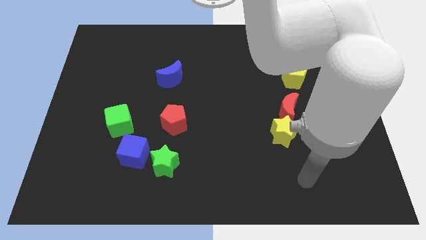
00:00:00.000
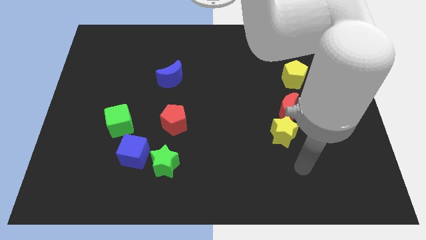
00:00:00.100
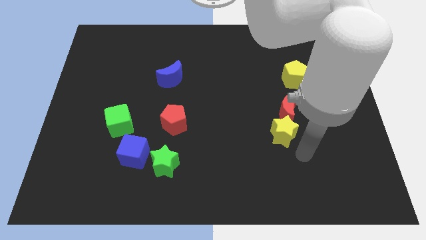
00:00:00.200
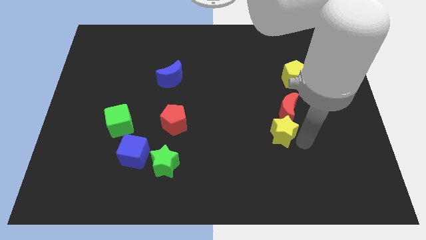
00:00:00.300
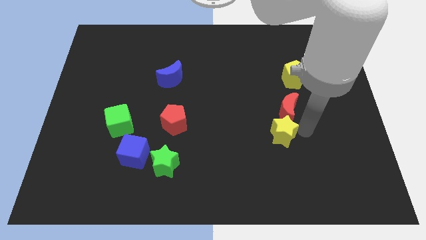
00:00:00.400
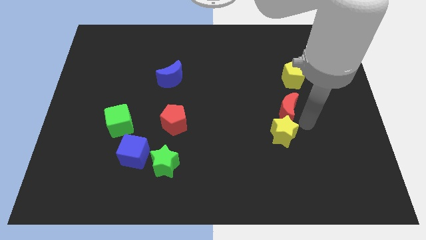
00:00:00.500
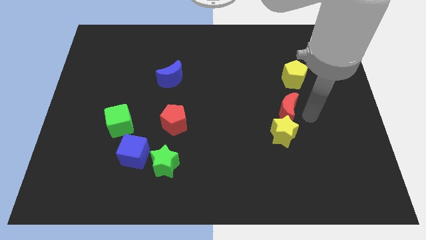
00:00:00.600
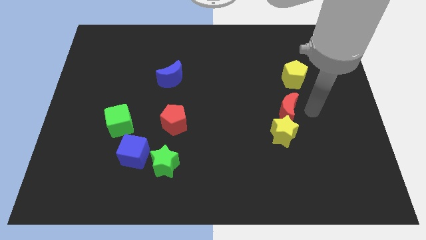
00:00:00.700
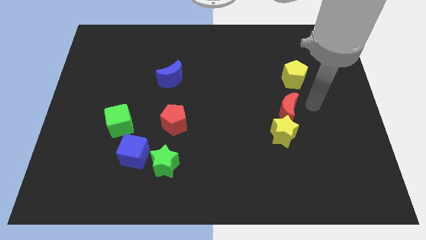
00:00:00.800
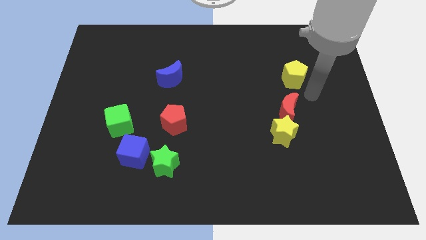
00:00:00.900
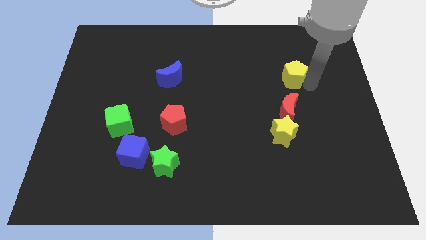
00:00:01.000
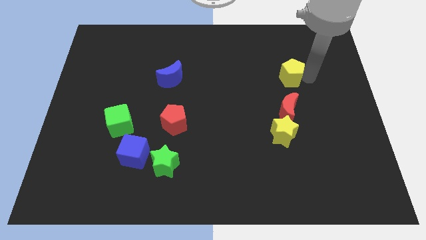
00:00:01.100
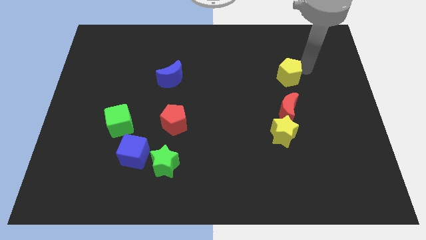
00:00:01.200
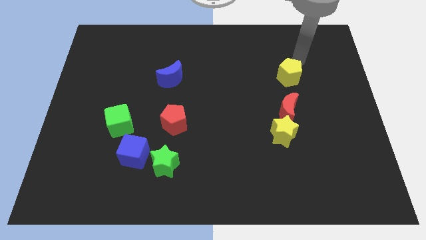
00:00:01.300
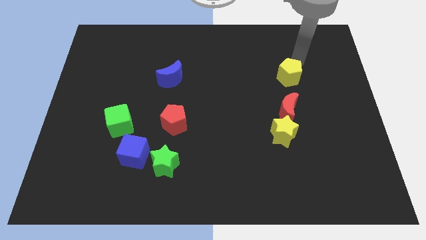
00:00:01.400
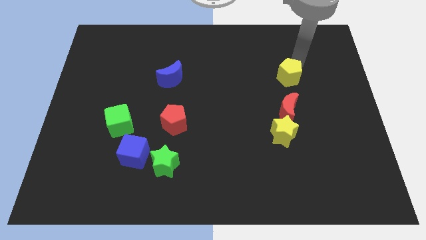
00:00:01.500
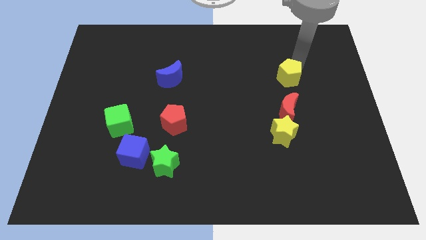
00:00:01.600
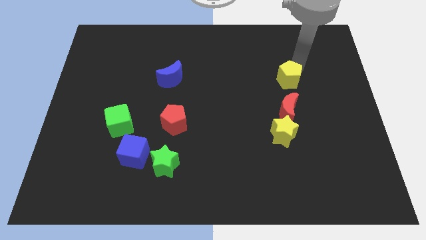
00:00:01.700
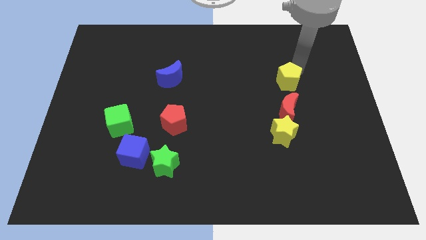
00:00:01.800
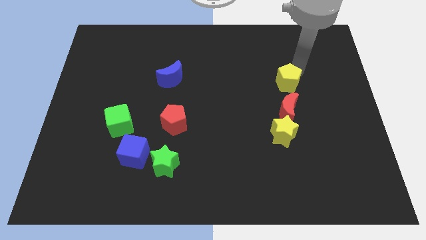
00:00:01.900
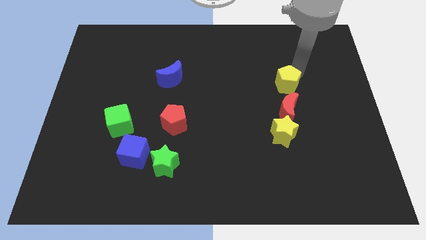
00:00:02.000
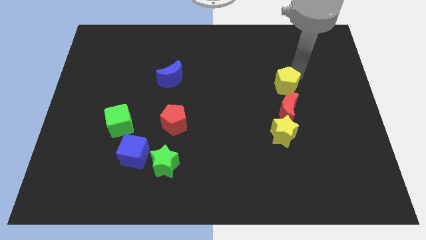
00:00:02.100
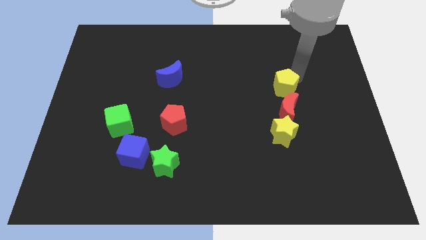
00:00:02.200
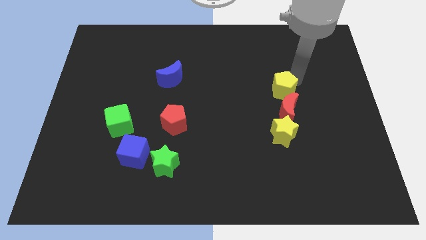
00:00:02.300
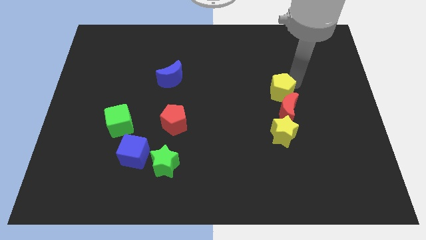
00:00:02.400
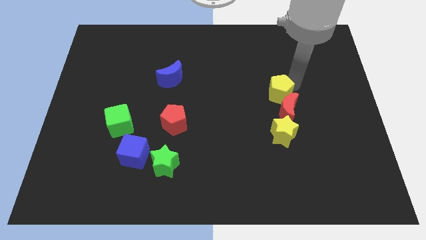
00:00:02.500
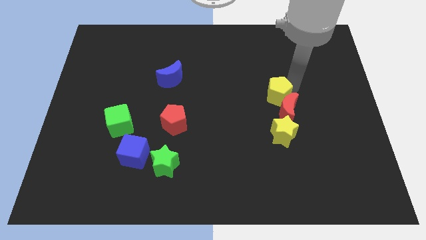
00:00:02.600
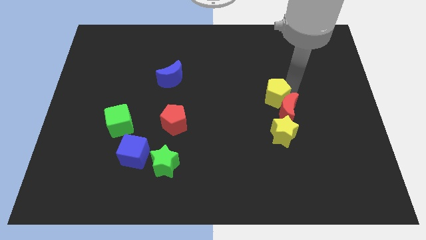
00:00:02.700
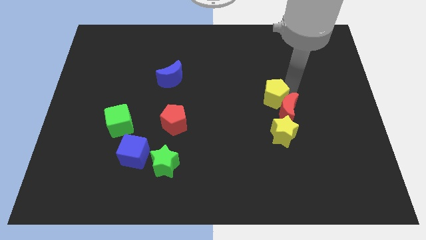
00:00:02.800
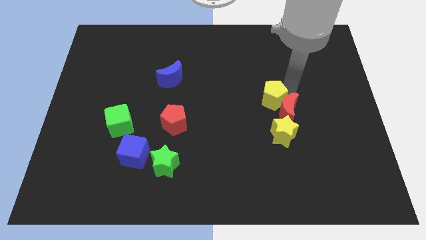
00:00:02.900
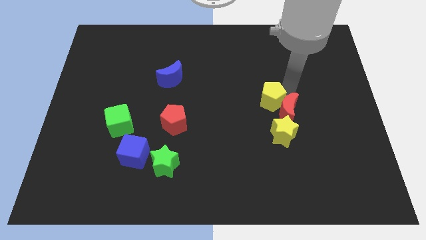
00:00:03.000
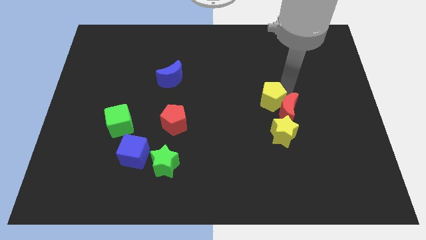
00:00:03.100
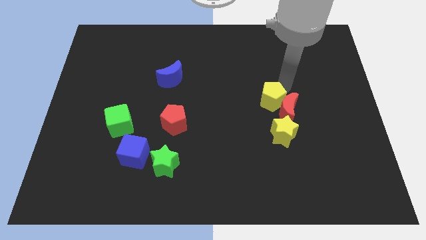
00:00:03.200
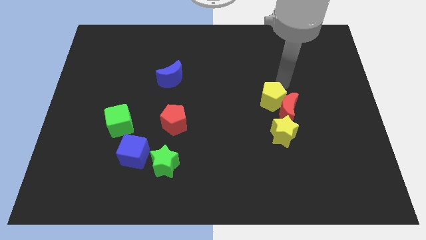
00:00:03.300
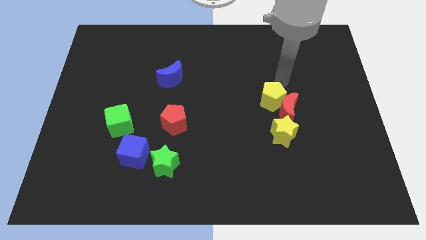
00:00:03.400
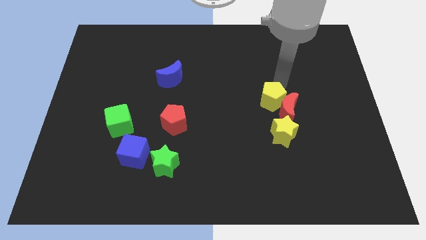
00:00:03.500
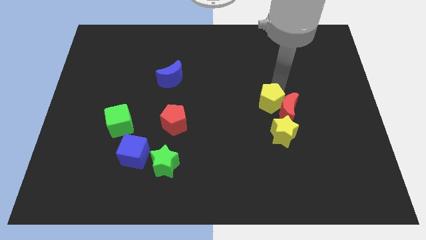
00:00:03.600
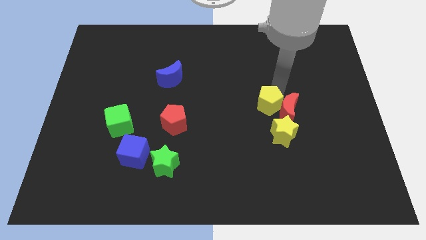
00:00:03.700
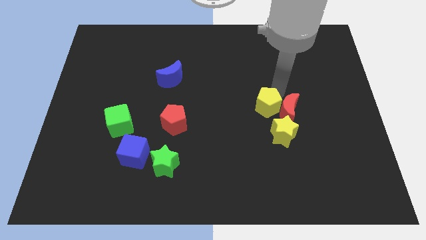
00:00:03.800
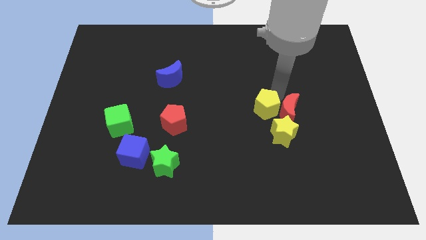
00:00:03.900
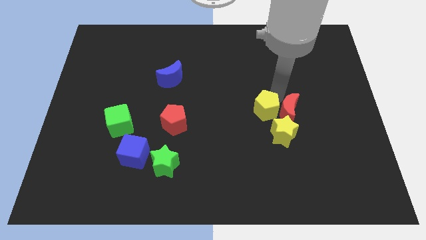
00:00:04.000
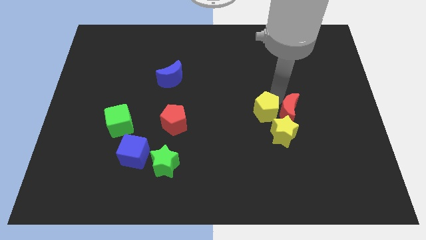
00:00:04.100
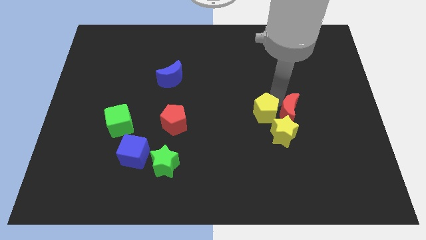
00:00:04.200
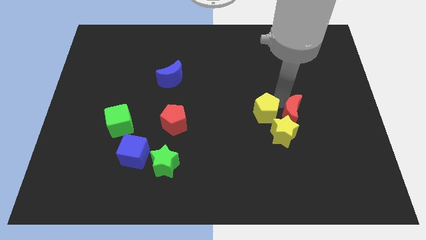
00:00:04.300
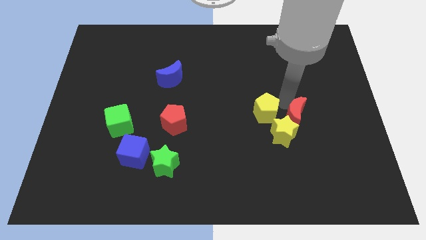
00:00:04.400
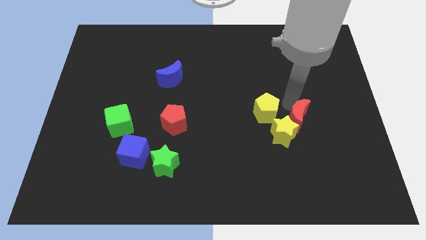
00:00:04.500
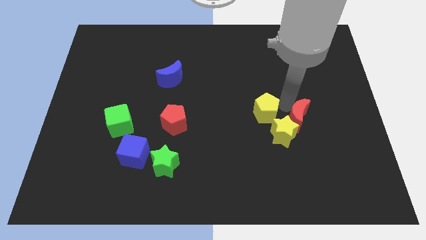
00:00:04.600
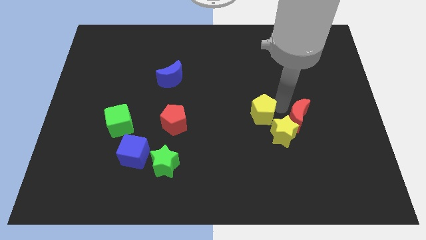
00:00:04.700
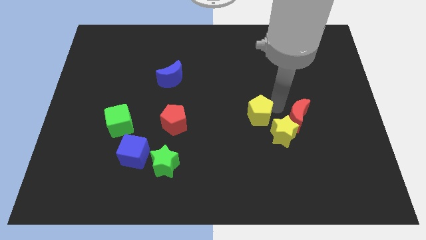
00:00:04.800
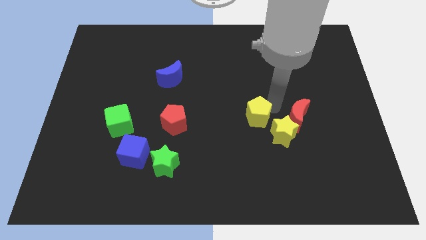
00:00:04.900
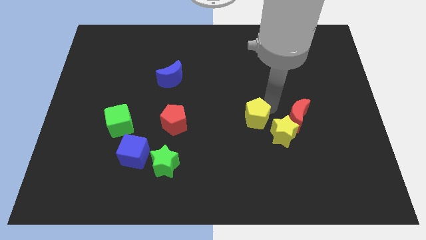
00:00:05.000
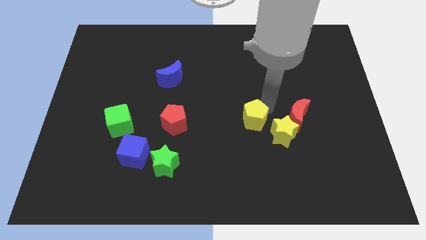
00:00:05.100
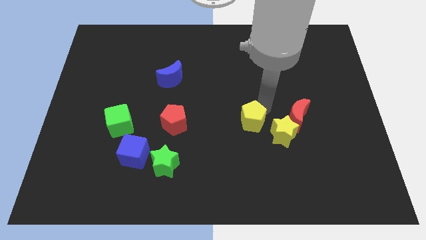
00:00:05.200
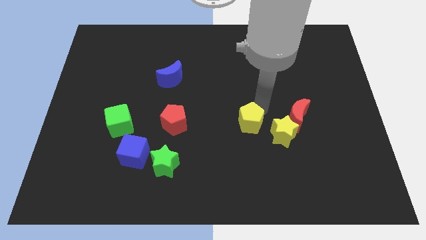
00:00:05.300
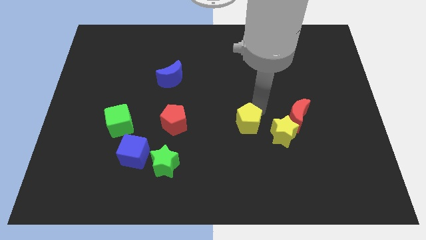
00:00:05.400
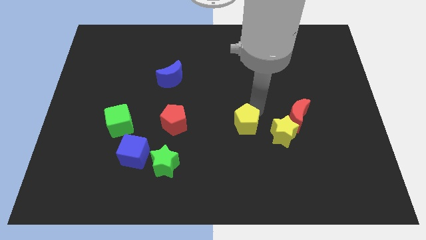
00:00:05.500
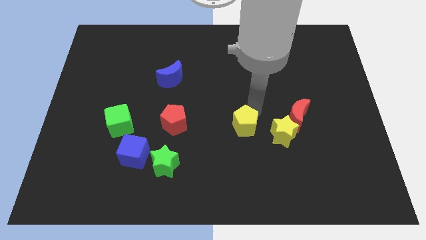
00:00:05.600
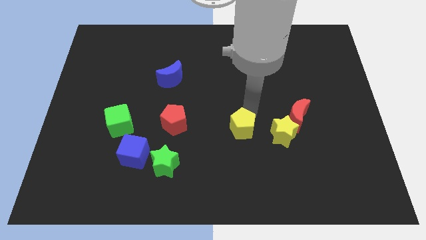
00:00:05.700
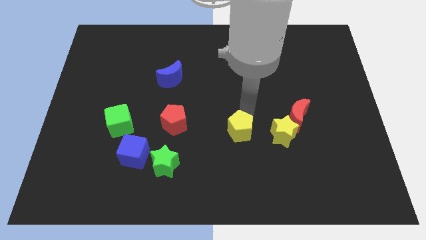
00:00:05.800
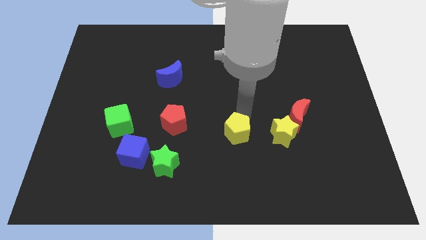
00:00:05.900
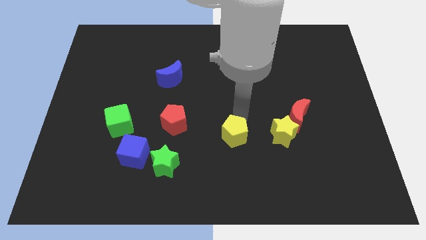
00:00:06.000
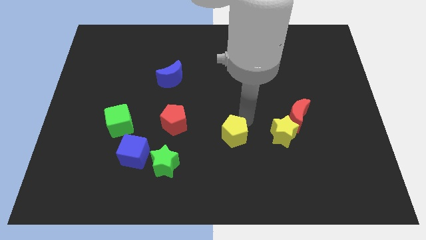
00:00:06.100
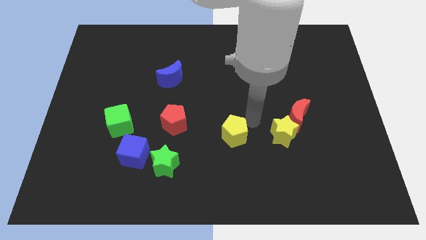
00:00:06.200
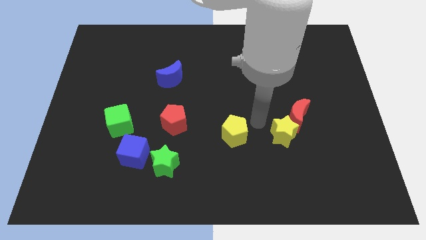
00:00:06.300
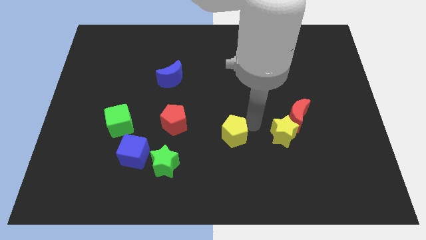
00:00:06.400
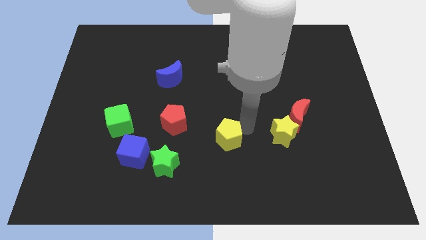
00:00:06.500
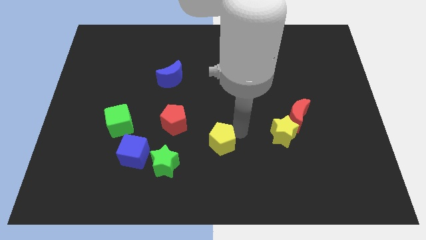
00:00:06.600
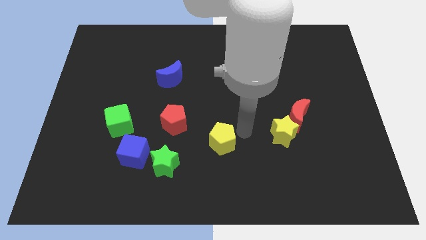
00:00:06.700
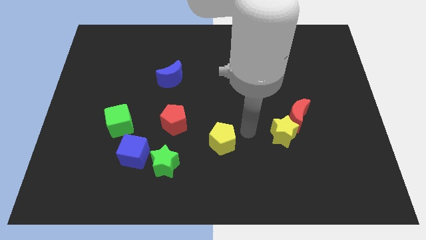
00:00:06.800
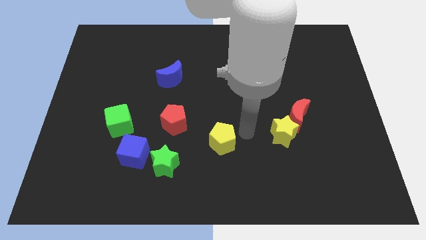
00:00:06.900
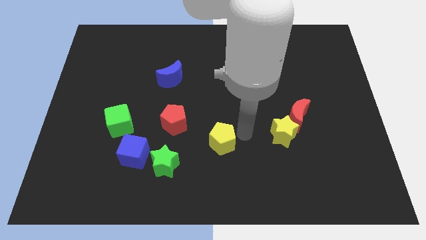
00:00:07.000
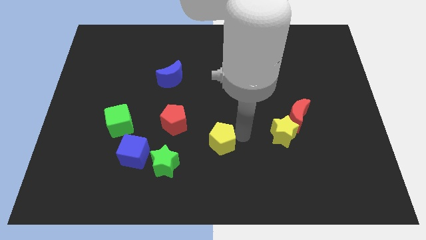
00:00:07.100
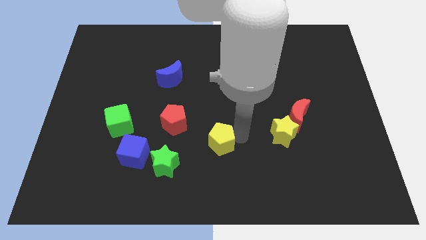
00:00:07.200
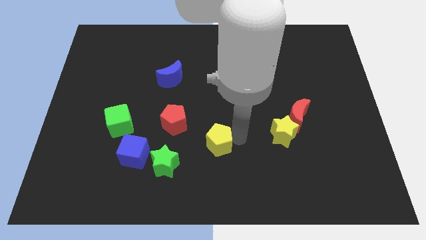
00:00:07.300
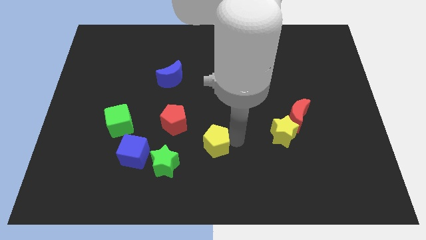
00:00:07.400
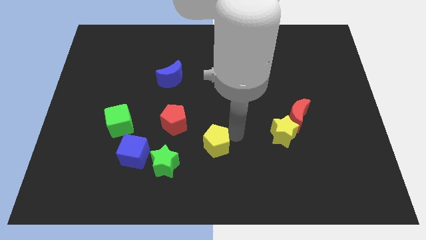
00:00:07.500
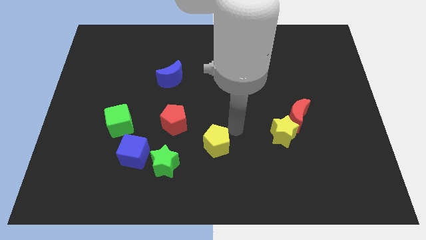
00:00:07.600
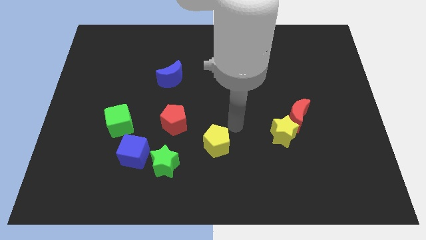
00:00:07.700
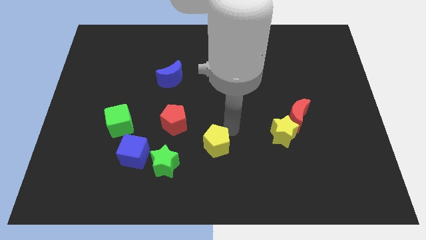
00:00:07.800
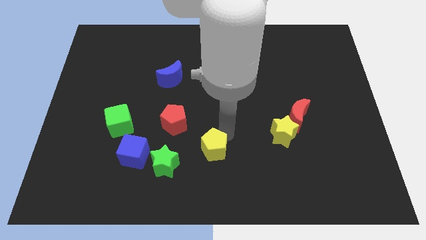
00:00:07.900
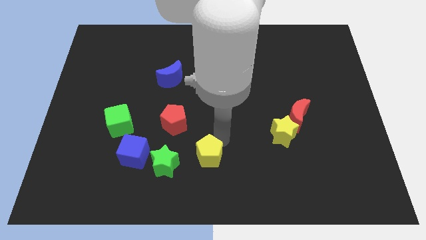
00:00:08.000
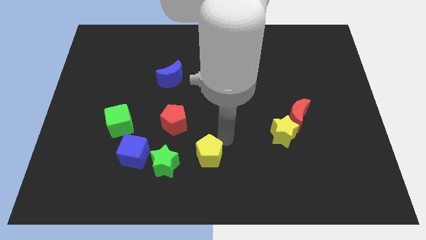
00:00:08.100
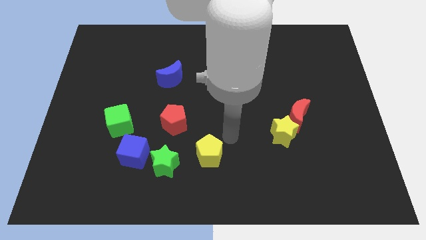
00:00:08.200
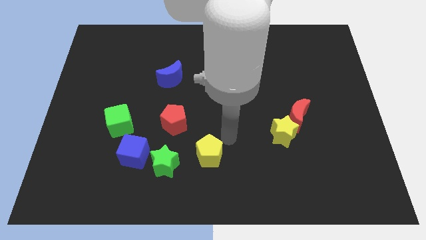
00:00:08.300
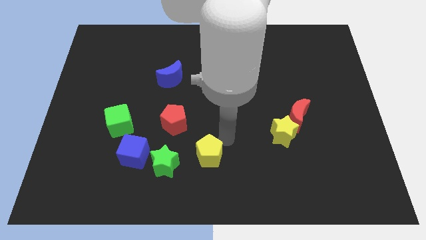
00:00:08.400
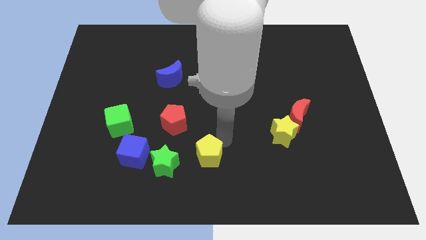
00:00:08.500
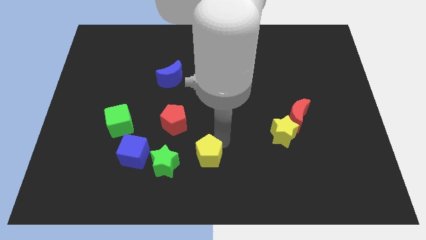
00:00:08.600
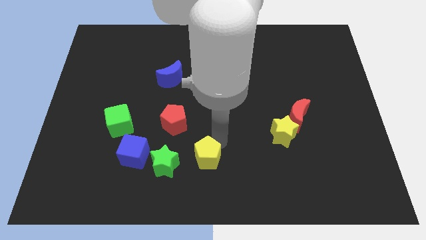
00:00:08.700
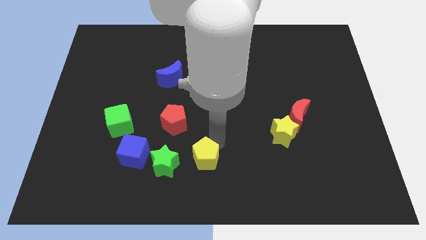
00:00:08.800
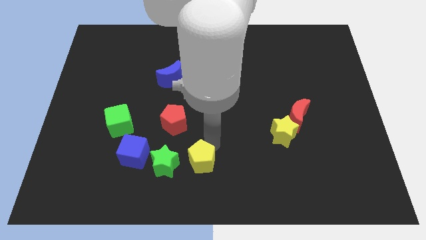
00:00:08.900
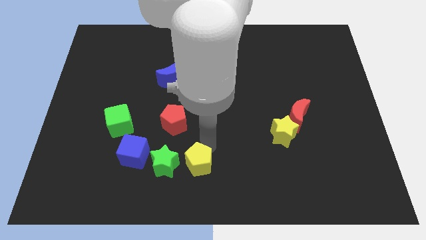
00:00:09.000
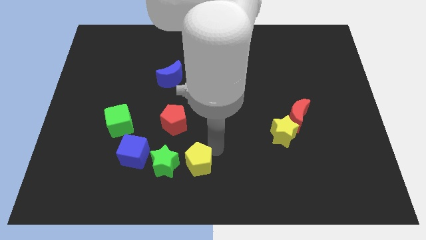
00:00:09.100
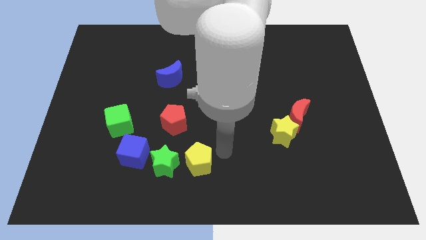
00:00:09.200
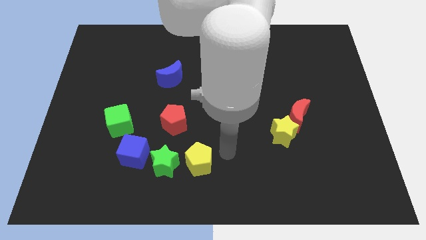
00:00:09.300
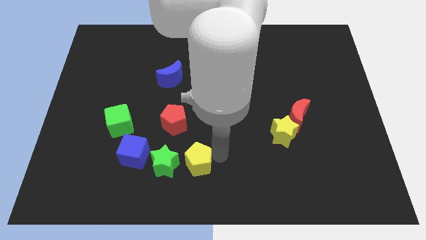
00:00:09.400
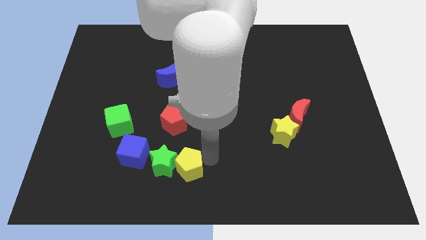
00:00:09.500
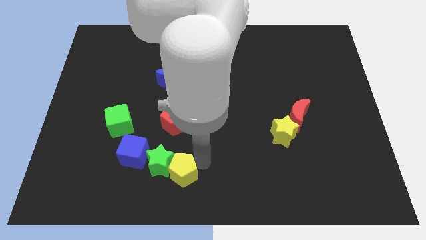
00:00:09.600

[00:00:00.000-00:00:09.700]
slide the yellow pentagon to the bottom right side of the blue cube
